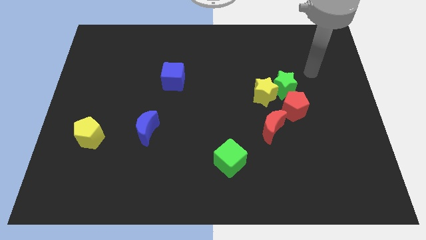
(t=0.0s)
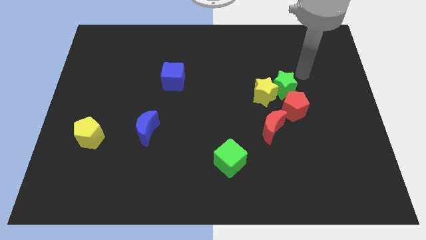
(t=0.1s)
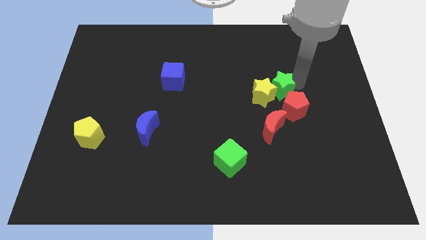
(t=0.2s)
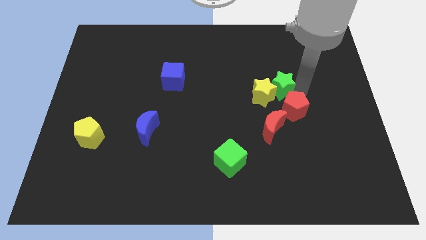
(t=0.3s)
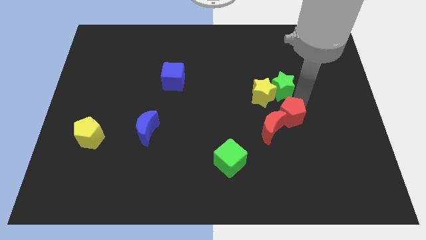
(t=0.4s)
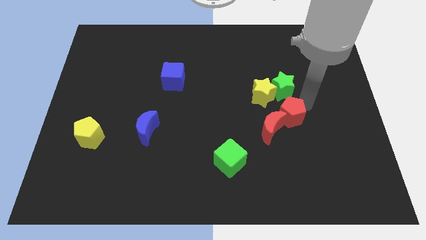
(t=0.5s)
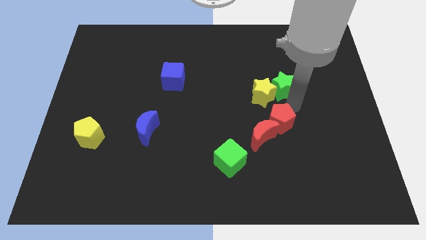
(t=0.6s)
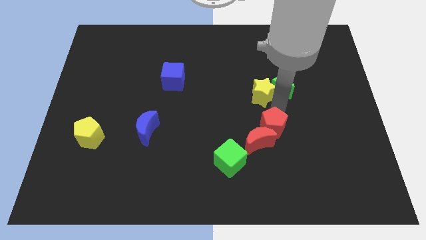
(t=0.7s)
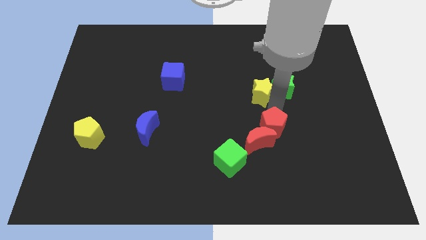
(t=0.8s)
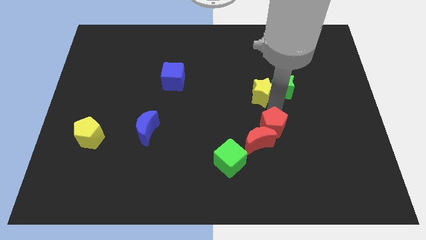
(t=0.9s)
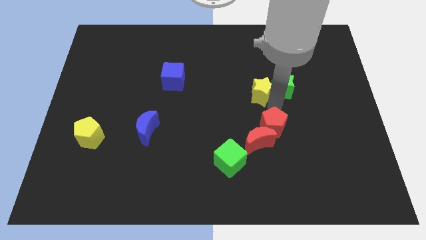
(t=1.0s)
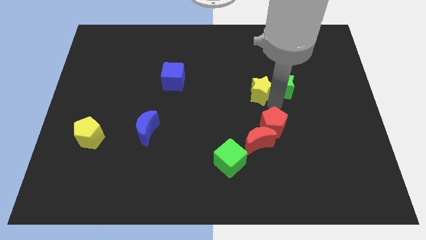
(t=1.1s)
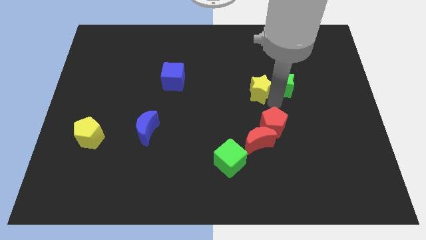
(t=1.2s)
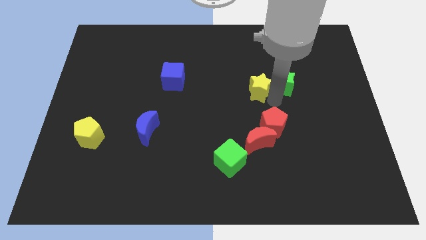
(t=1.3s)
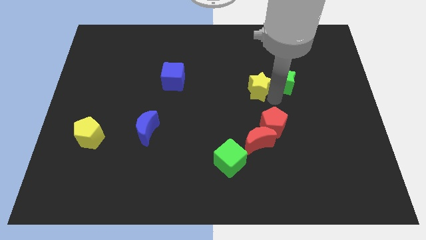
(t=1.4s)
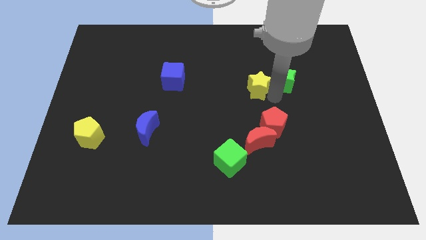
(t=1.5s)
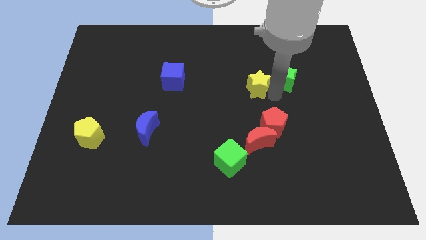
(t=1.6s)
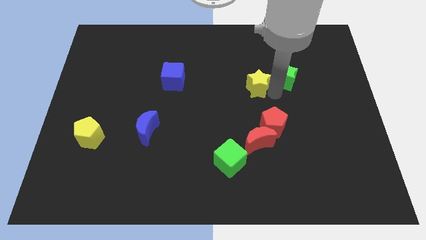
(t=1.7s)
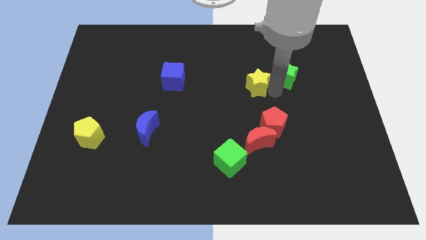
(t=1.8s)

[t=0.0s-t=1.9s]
move the green star away from the yellow star and red pentagon

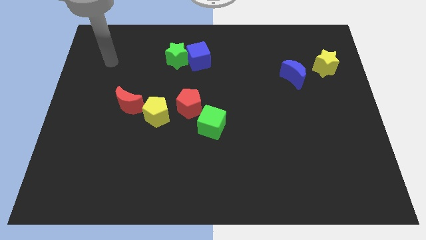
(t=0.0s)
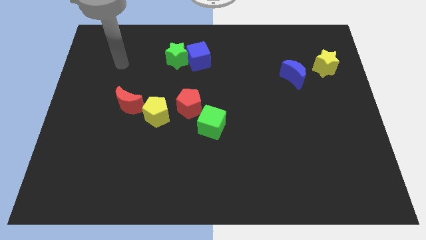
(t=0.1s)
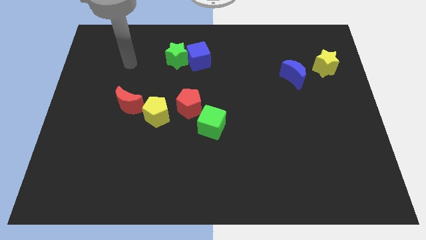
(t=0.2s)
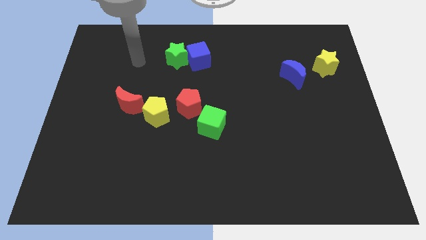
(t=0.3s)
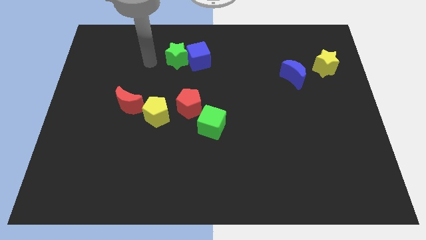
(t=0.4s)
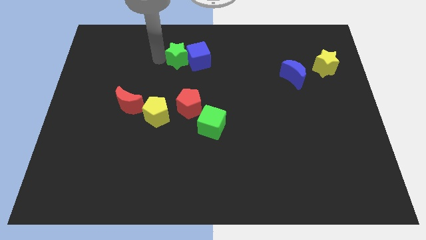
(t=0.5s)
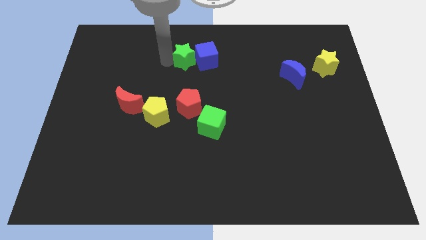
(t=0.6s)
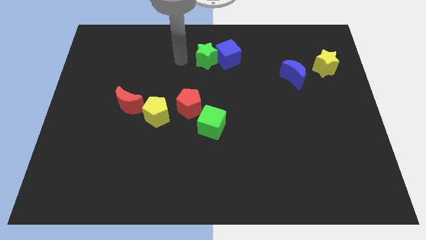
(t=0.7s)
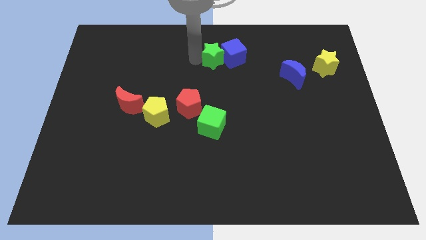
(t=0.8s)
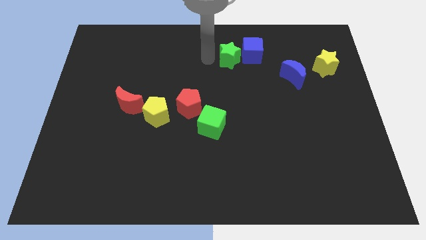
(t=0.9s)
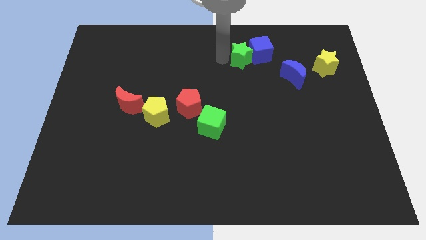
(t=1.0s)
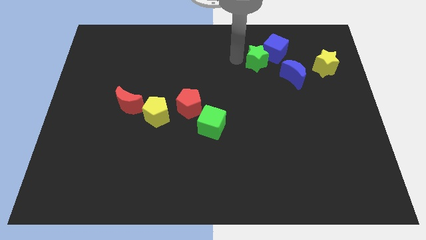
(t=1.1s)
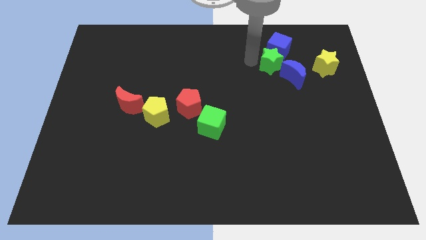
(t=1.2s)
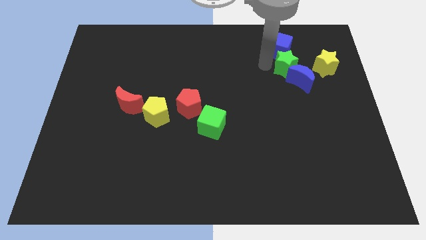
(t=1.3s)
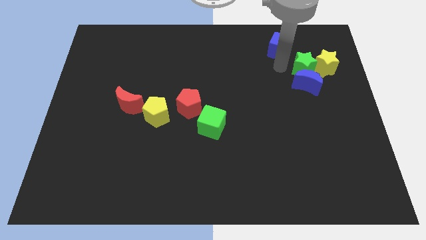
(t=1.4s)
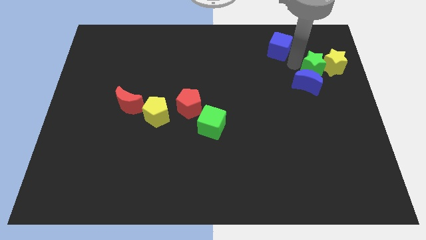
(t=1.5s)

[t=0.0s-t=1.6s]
move the blue cube away from the green star

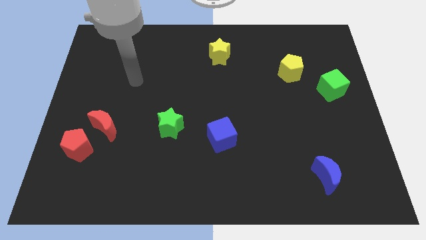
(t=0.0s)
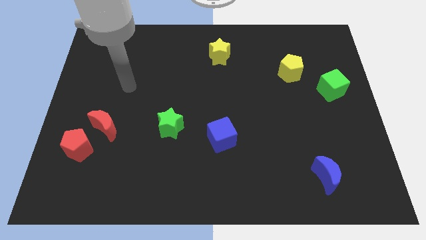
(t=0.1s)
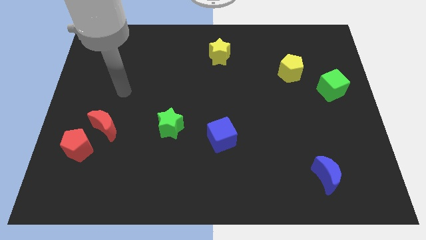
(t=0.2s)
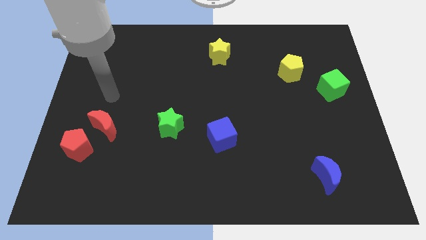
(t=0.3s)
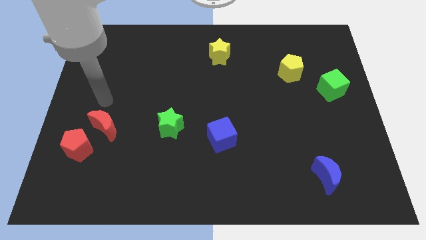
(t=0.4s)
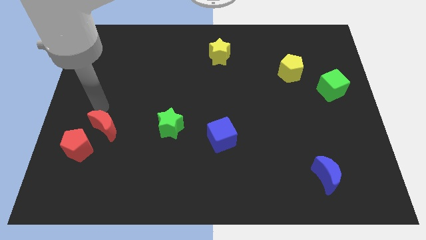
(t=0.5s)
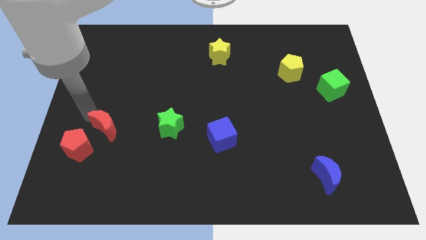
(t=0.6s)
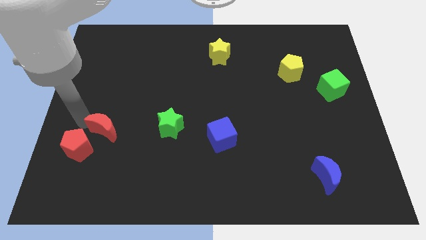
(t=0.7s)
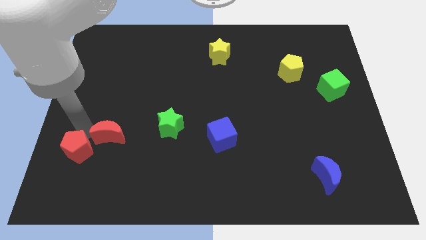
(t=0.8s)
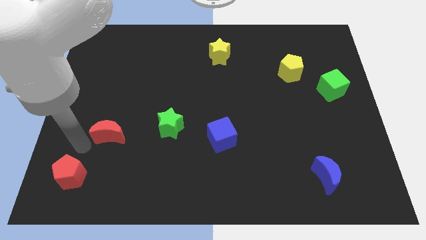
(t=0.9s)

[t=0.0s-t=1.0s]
pull the red moon apart from the red pentagon

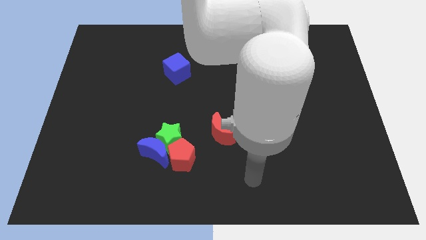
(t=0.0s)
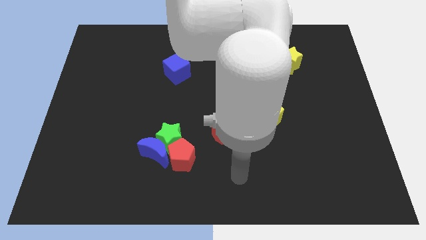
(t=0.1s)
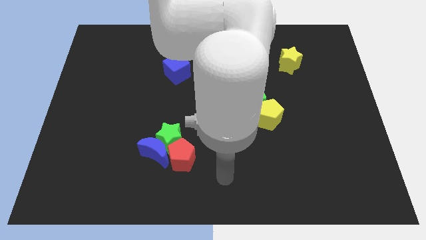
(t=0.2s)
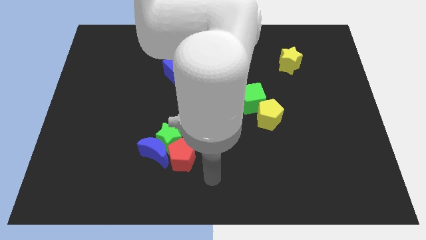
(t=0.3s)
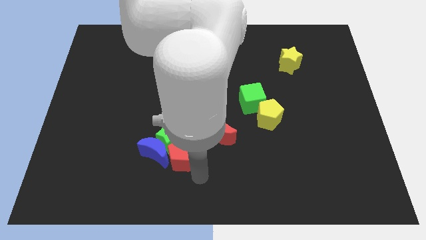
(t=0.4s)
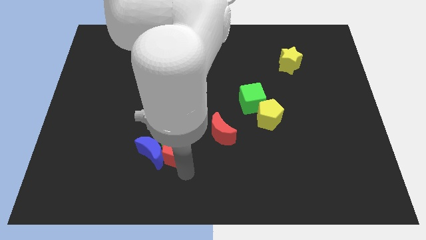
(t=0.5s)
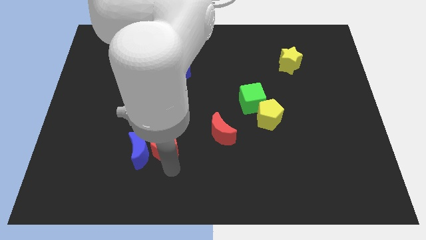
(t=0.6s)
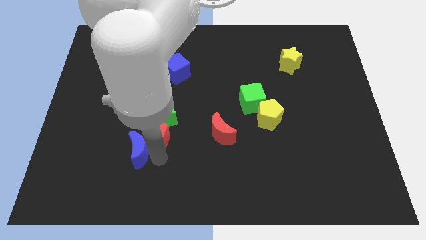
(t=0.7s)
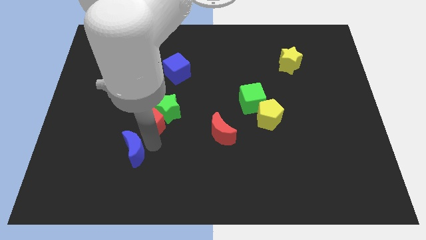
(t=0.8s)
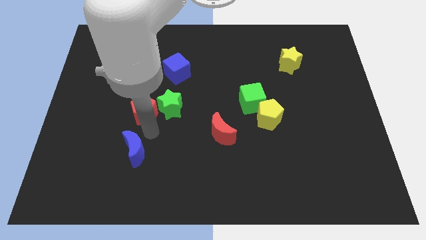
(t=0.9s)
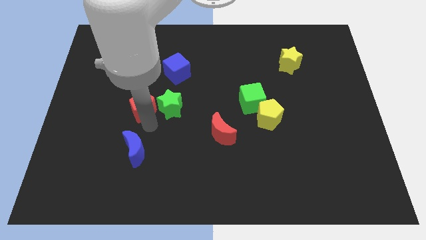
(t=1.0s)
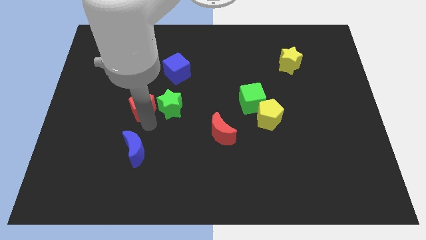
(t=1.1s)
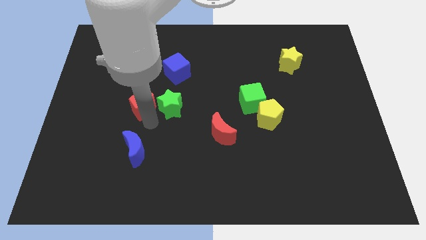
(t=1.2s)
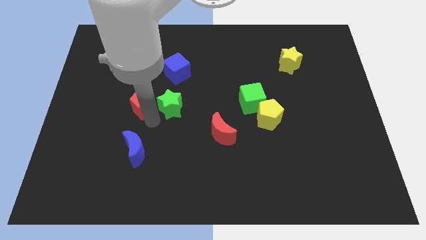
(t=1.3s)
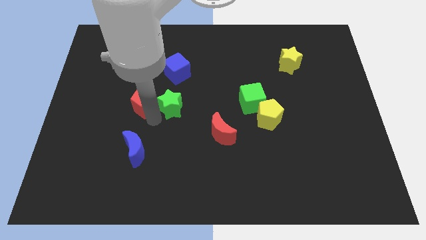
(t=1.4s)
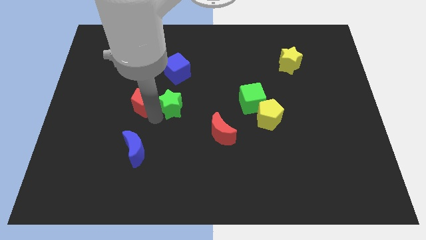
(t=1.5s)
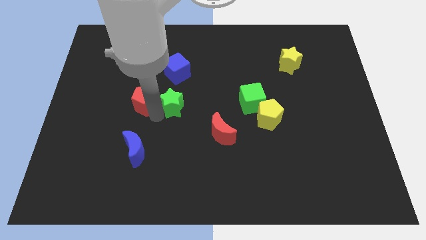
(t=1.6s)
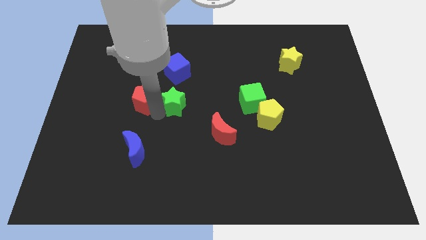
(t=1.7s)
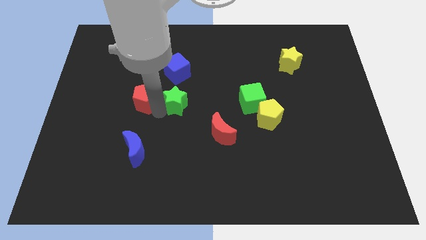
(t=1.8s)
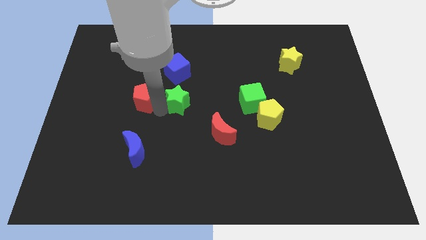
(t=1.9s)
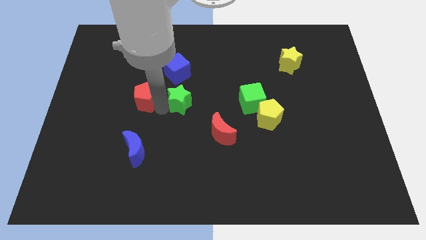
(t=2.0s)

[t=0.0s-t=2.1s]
separate the green star from the blue moon and red pentagon

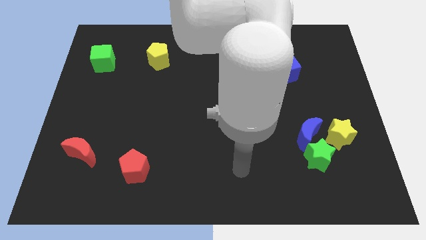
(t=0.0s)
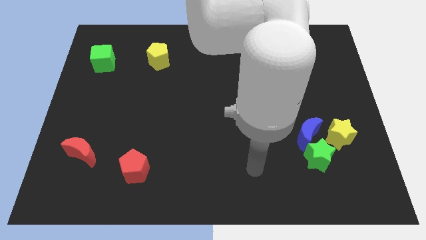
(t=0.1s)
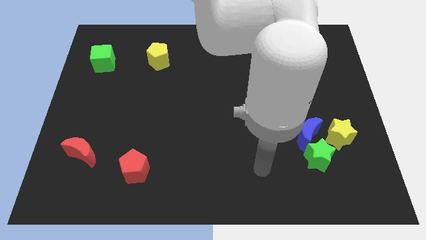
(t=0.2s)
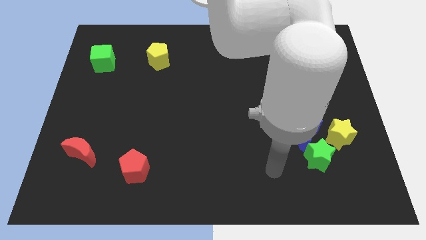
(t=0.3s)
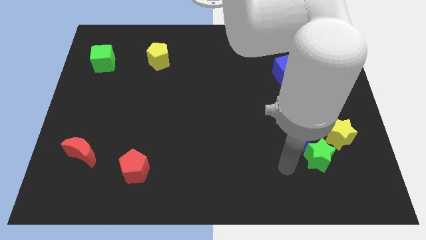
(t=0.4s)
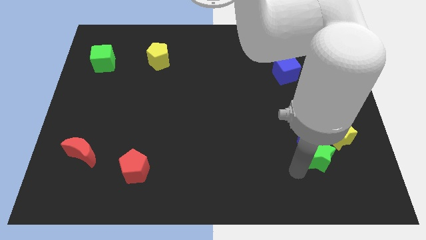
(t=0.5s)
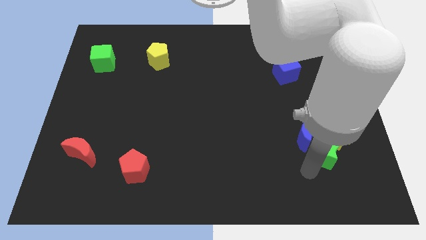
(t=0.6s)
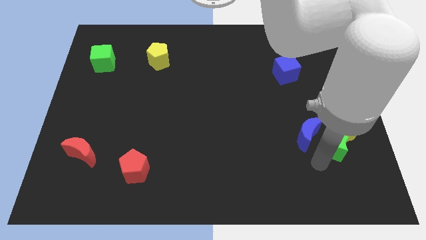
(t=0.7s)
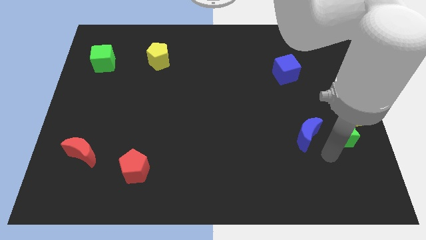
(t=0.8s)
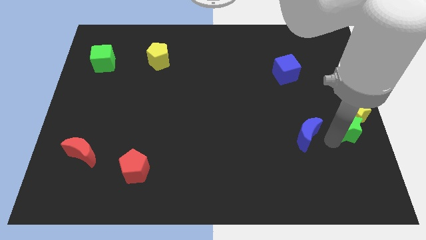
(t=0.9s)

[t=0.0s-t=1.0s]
pull the blue moon apart from the green star and yellow star

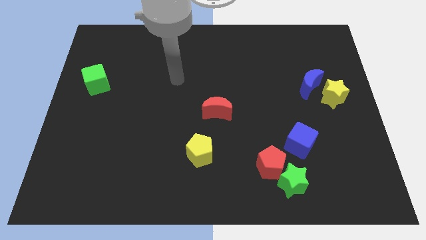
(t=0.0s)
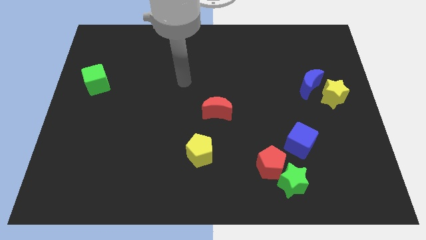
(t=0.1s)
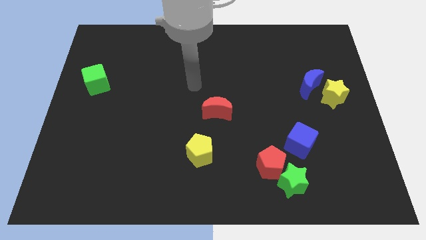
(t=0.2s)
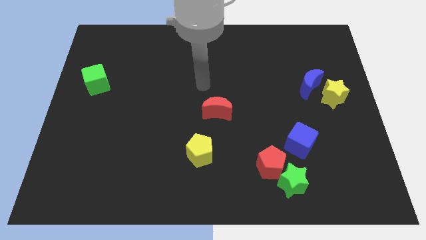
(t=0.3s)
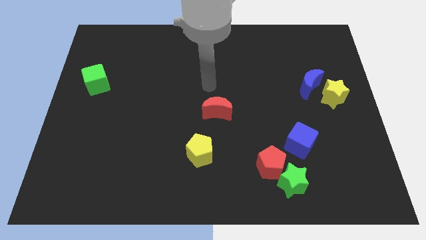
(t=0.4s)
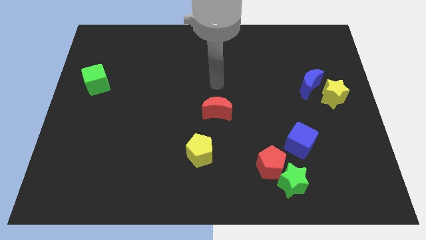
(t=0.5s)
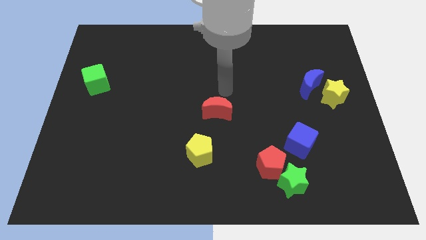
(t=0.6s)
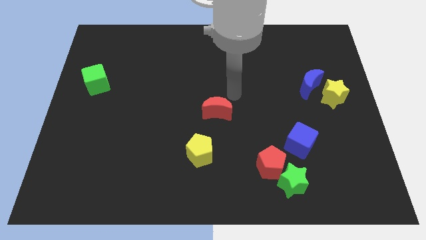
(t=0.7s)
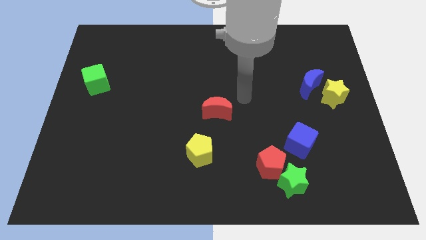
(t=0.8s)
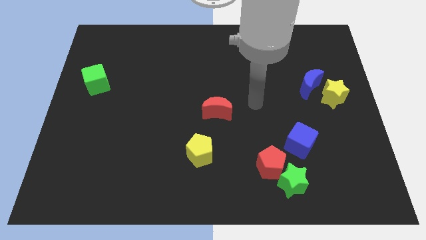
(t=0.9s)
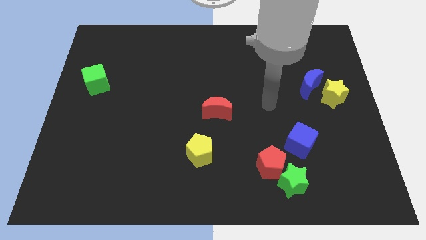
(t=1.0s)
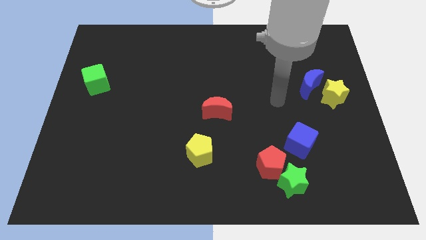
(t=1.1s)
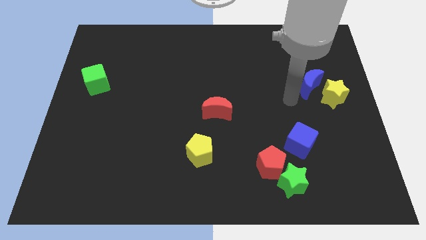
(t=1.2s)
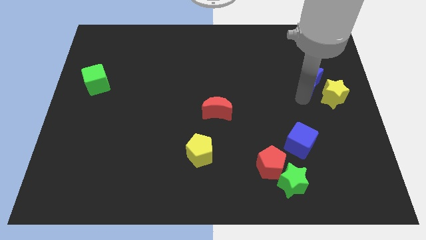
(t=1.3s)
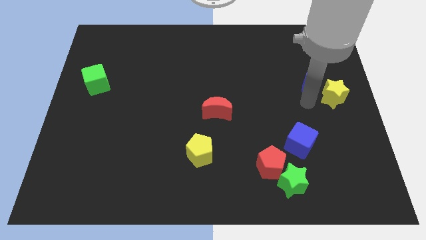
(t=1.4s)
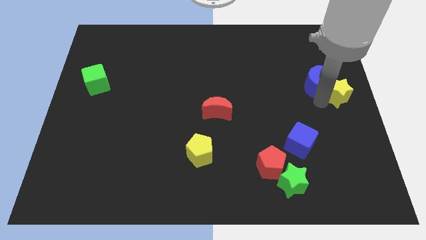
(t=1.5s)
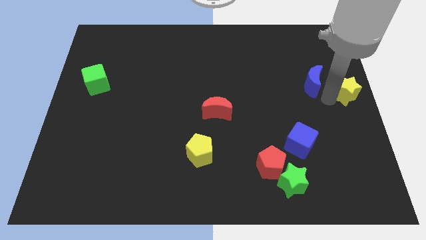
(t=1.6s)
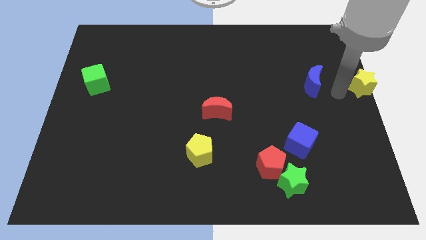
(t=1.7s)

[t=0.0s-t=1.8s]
pull the blue moon apart from the yellow star

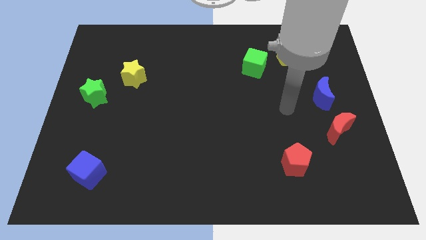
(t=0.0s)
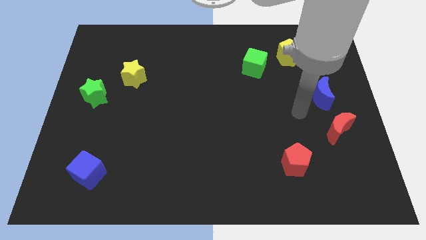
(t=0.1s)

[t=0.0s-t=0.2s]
move the red moon away from the blue moon
